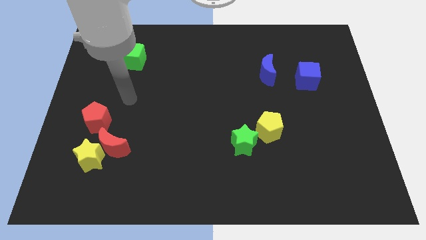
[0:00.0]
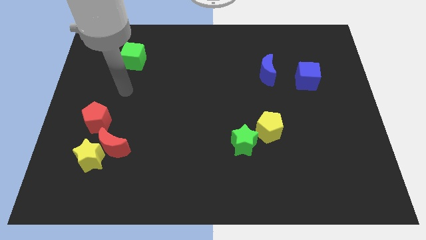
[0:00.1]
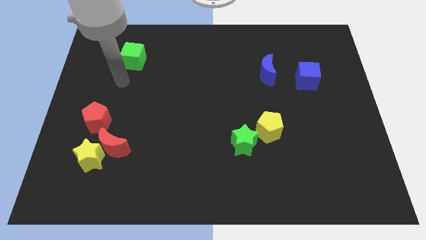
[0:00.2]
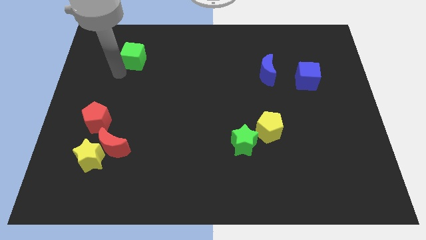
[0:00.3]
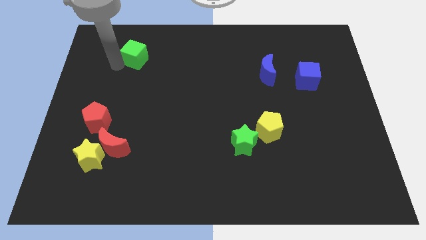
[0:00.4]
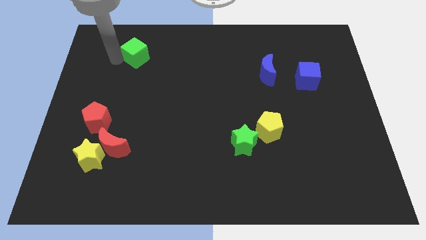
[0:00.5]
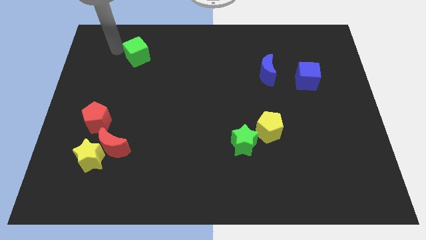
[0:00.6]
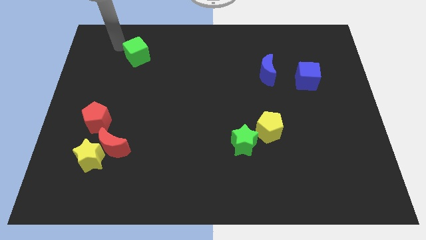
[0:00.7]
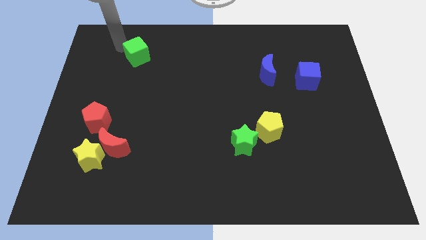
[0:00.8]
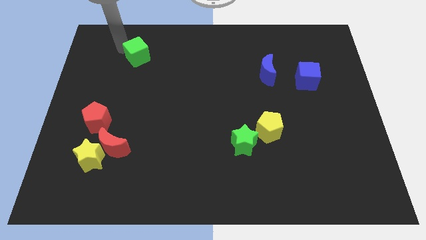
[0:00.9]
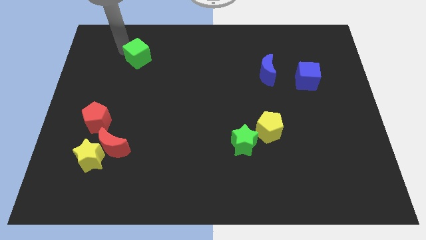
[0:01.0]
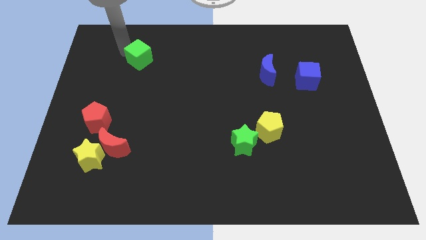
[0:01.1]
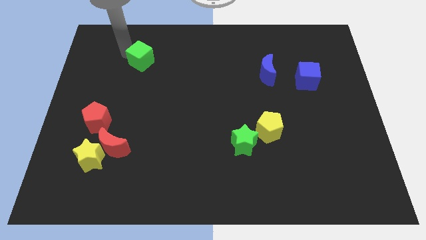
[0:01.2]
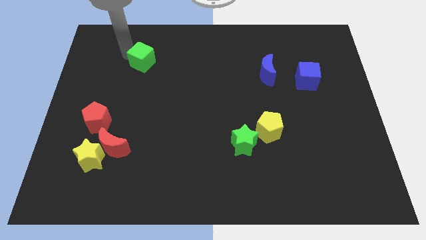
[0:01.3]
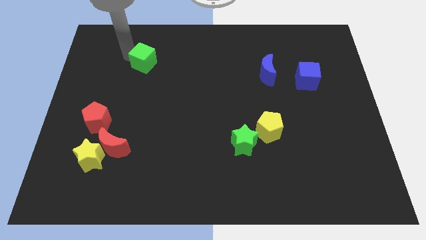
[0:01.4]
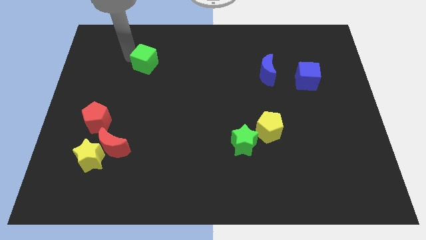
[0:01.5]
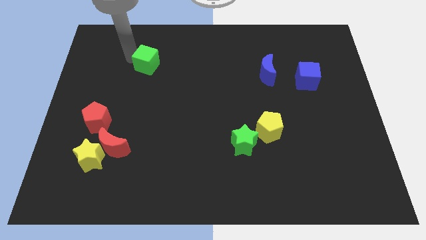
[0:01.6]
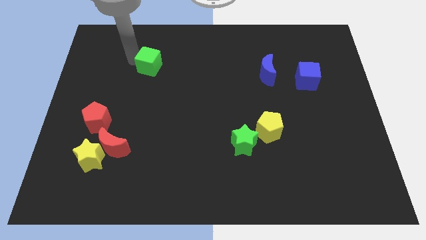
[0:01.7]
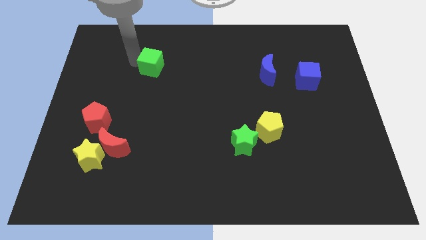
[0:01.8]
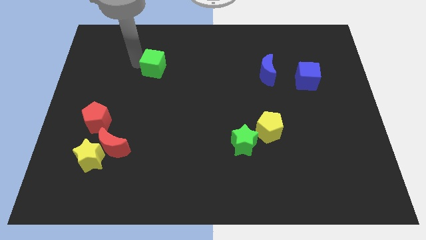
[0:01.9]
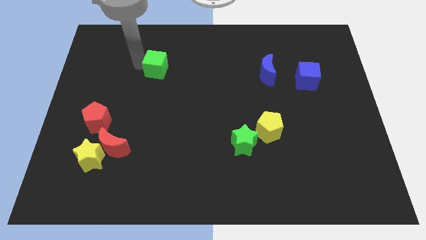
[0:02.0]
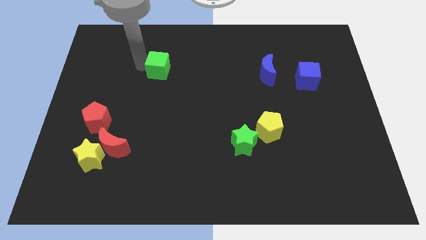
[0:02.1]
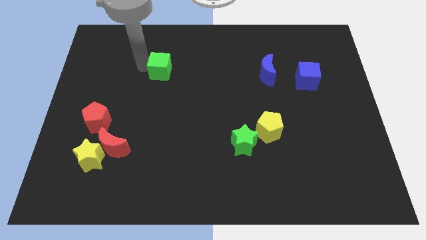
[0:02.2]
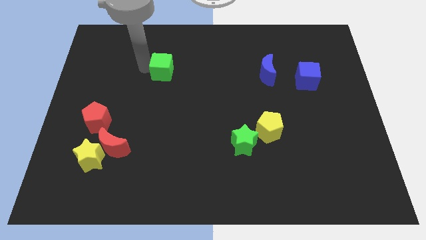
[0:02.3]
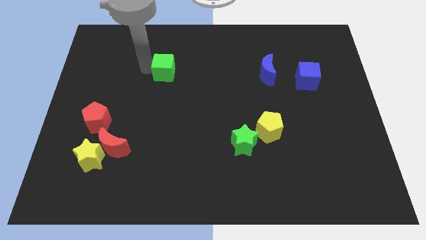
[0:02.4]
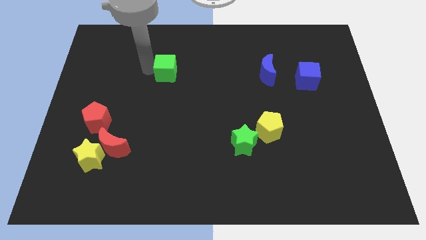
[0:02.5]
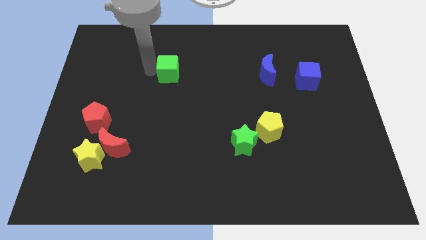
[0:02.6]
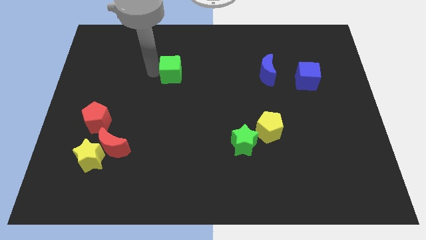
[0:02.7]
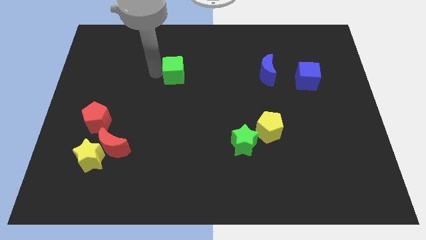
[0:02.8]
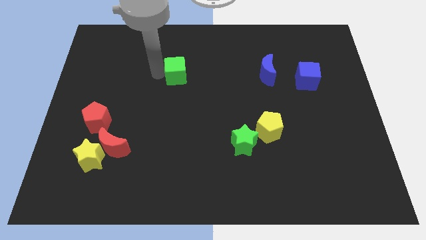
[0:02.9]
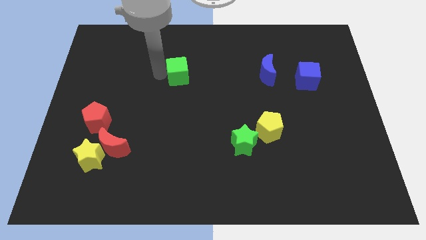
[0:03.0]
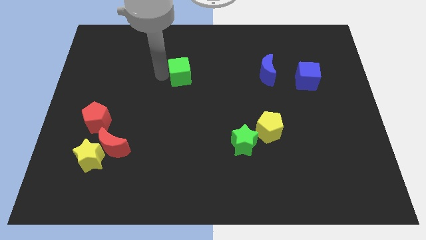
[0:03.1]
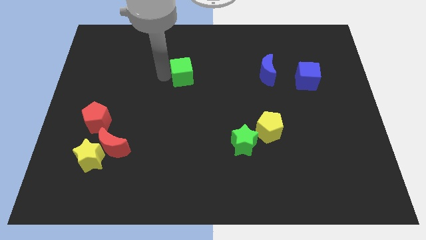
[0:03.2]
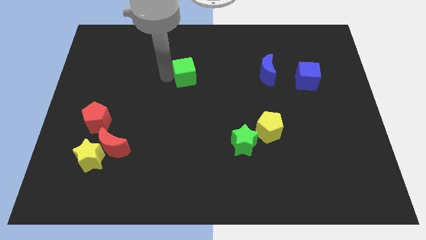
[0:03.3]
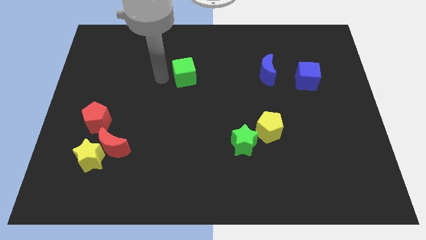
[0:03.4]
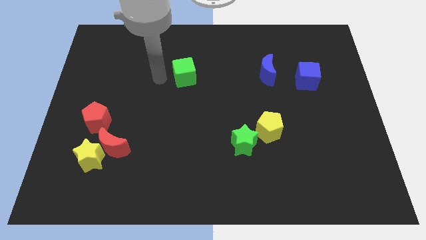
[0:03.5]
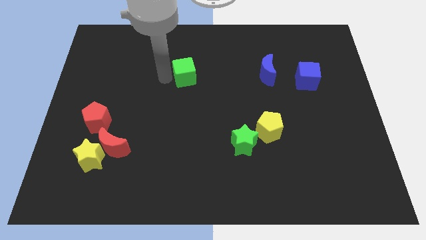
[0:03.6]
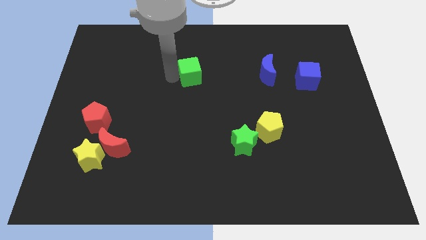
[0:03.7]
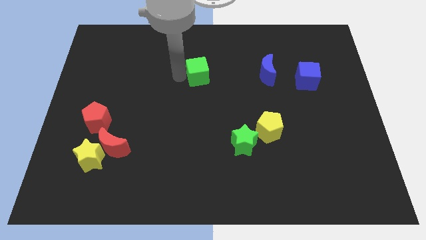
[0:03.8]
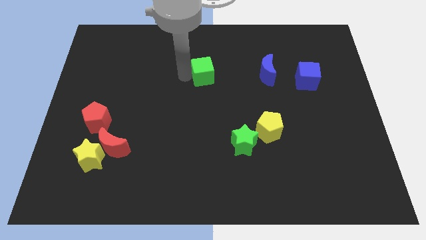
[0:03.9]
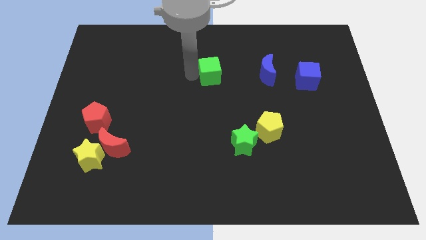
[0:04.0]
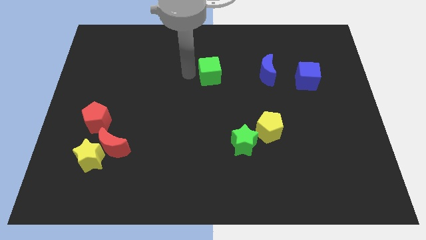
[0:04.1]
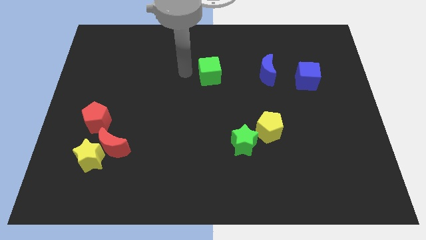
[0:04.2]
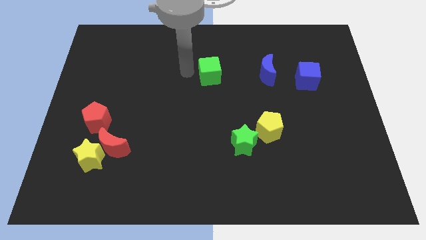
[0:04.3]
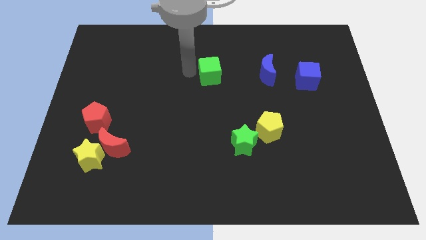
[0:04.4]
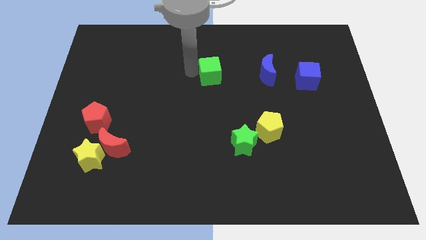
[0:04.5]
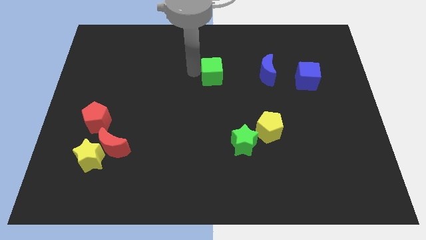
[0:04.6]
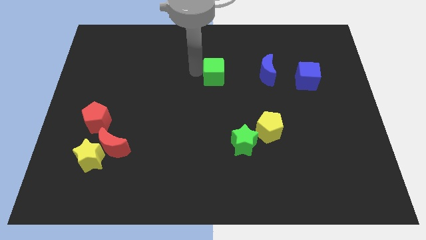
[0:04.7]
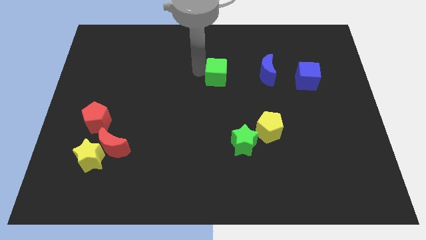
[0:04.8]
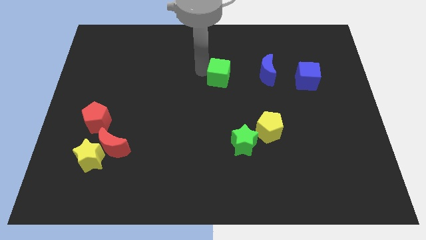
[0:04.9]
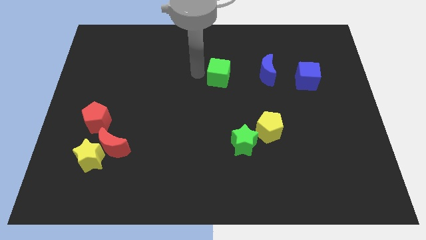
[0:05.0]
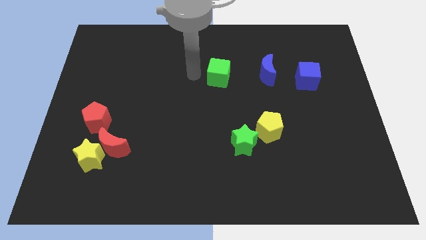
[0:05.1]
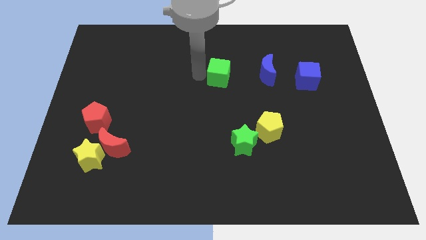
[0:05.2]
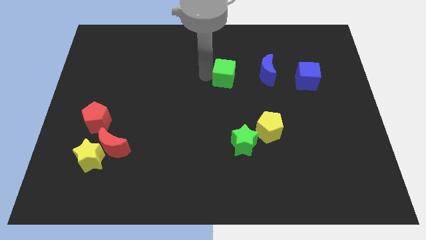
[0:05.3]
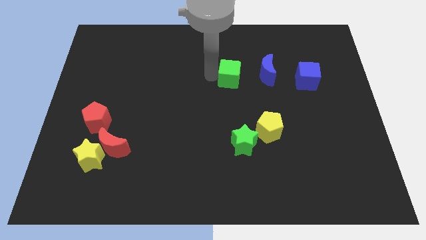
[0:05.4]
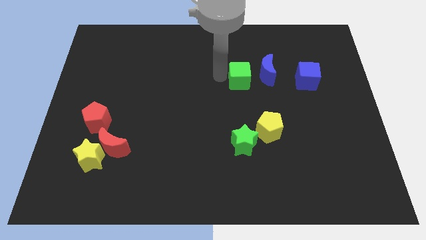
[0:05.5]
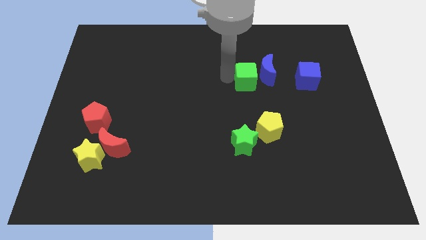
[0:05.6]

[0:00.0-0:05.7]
move the green cube to the left side of the blue cube

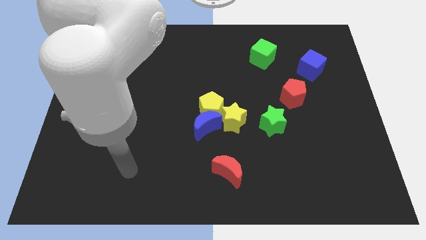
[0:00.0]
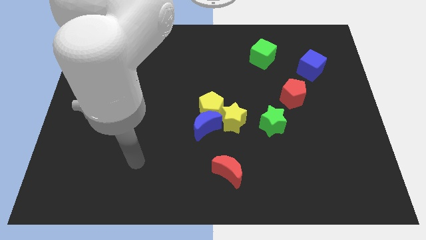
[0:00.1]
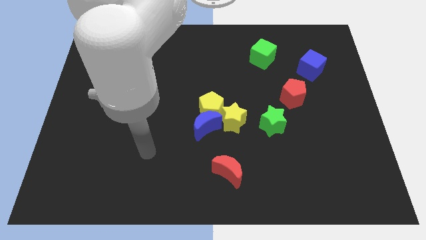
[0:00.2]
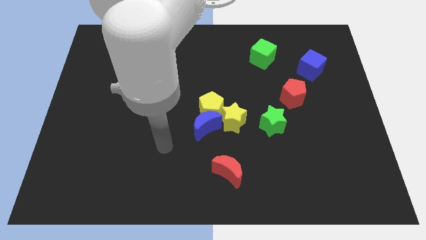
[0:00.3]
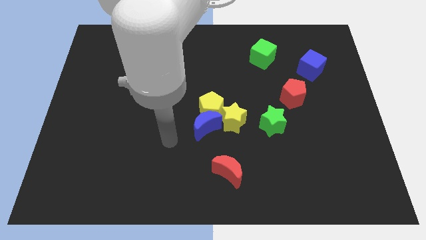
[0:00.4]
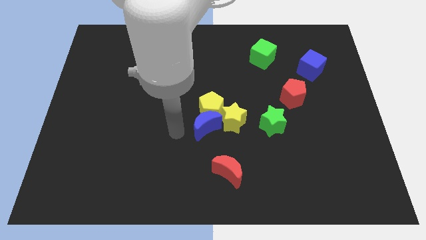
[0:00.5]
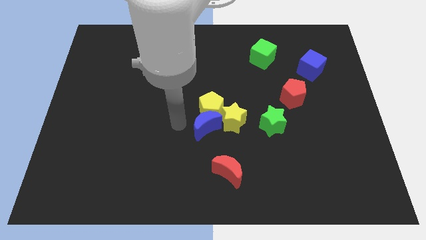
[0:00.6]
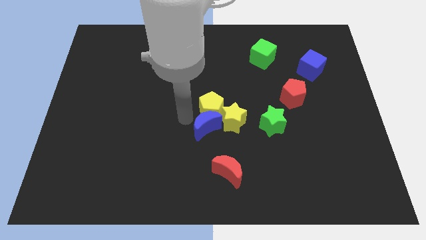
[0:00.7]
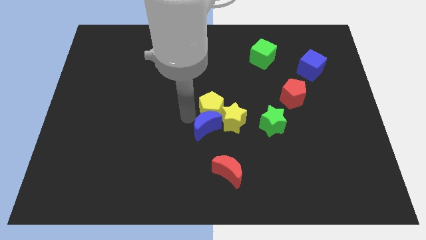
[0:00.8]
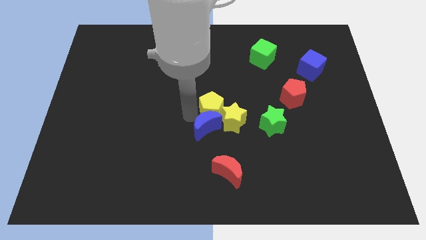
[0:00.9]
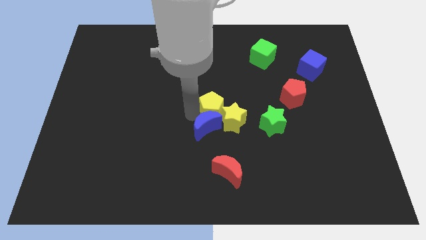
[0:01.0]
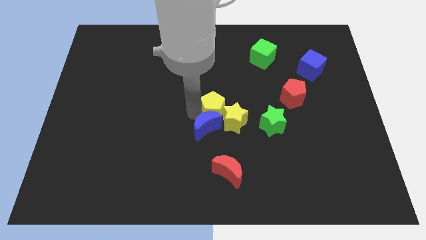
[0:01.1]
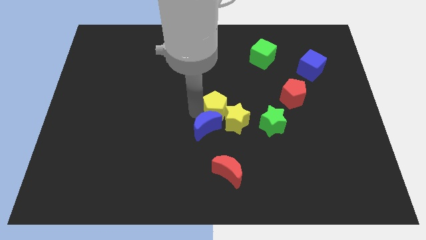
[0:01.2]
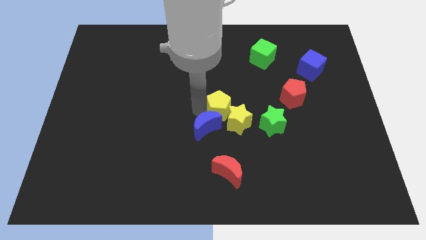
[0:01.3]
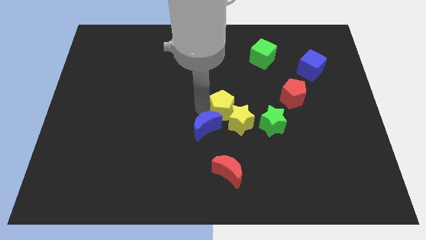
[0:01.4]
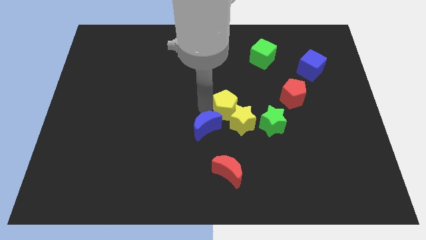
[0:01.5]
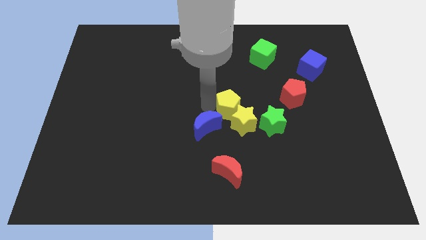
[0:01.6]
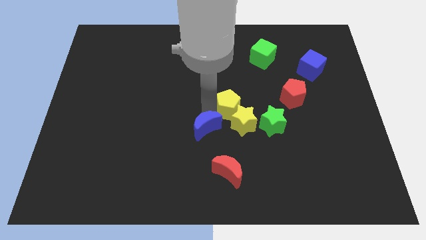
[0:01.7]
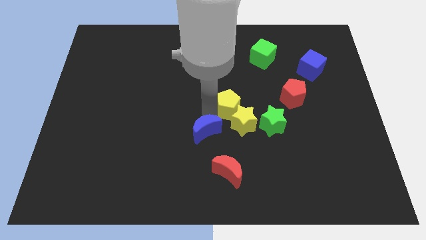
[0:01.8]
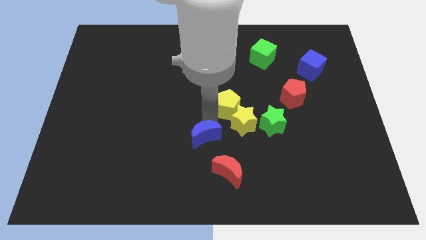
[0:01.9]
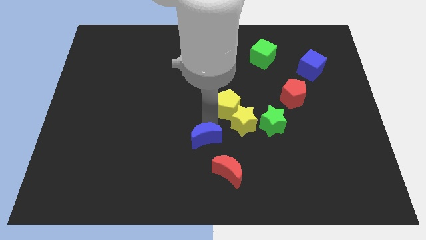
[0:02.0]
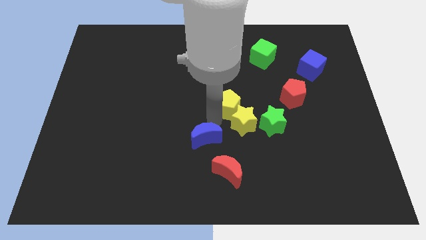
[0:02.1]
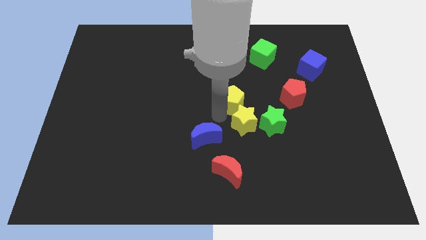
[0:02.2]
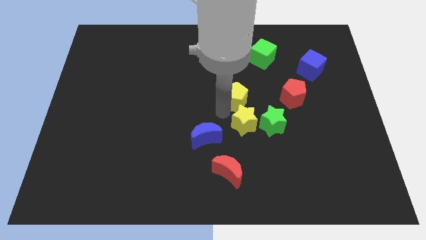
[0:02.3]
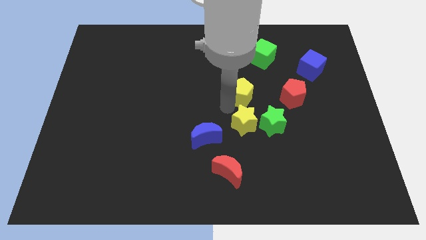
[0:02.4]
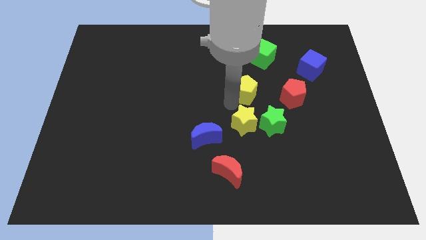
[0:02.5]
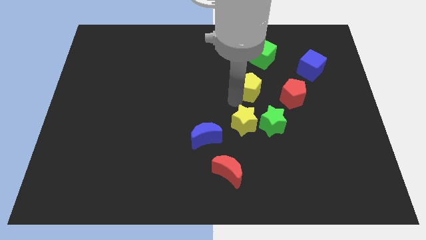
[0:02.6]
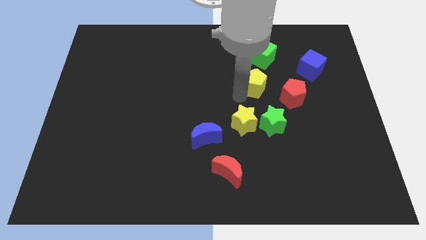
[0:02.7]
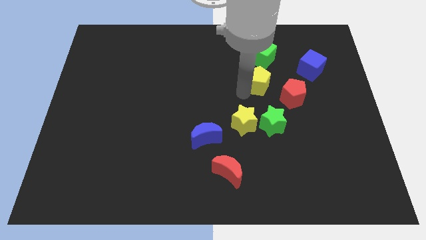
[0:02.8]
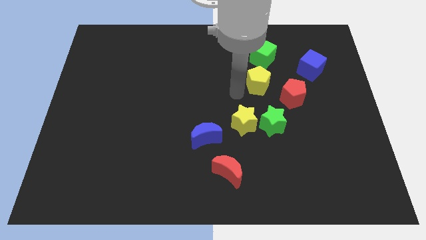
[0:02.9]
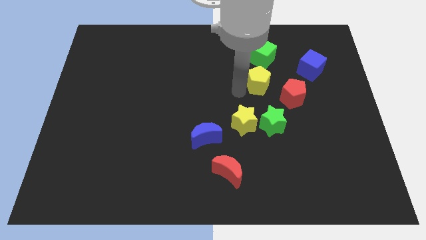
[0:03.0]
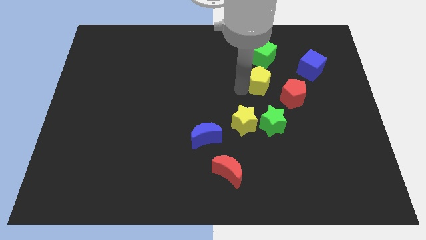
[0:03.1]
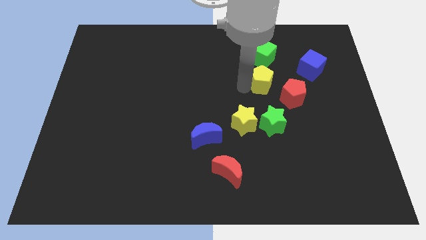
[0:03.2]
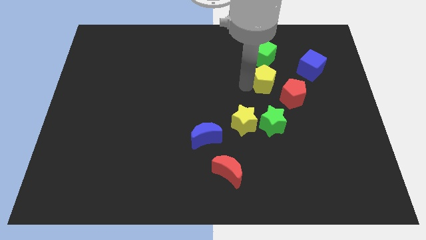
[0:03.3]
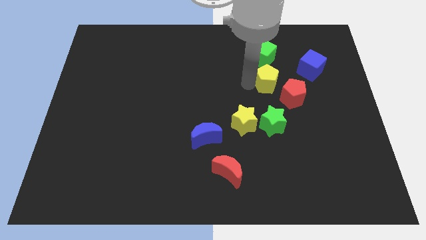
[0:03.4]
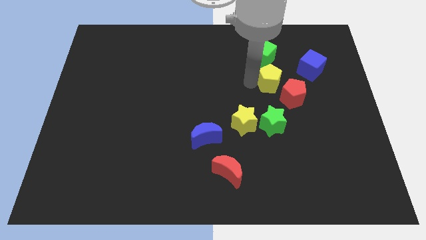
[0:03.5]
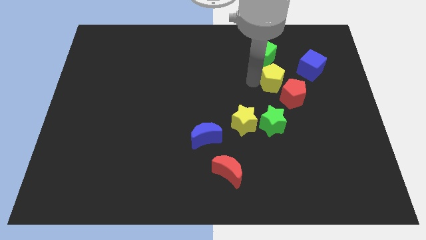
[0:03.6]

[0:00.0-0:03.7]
put the yellow pentagon to the bottom right of the green cube
